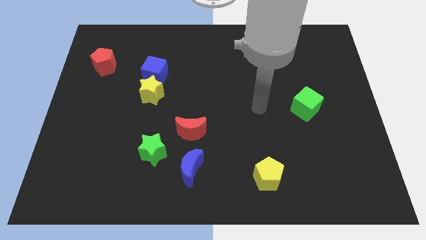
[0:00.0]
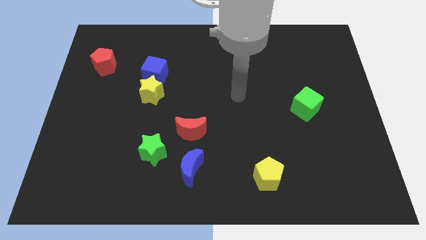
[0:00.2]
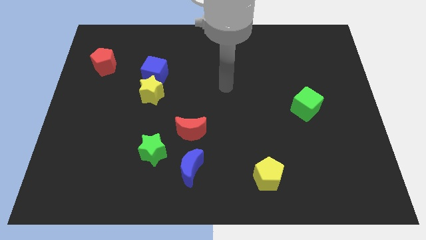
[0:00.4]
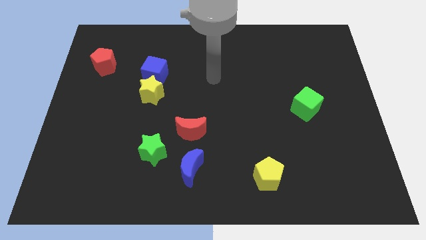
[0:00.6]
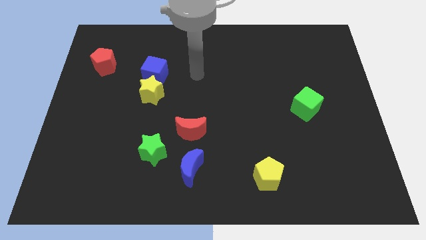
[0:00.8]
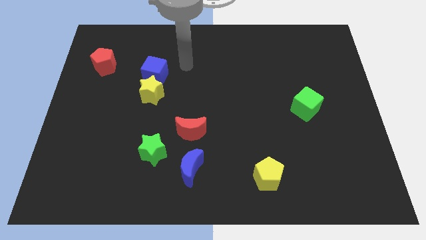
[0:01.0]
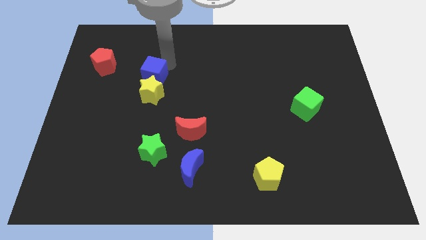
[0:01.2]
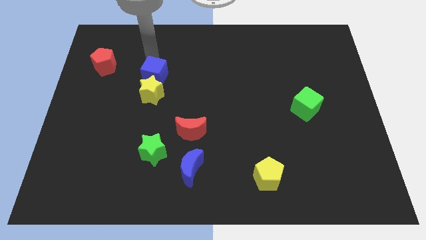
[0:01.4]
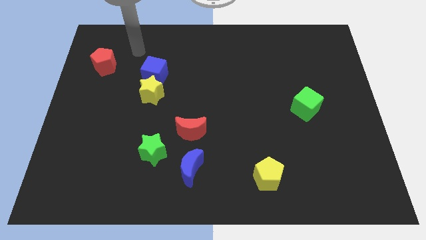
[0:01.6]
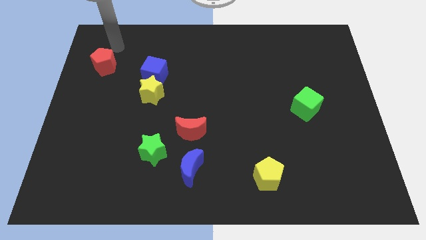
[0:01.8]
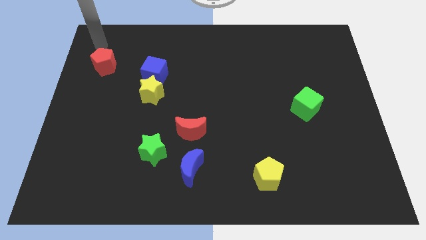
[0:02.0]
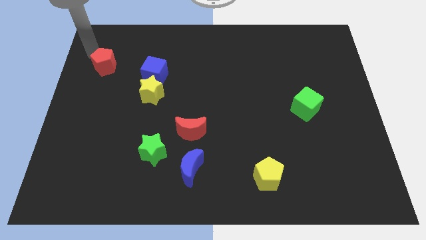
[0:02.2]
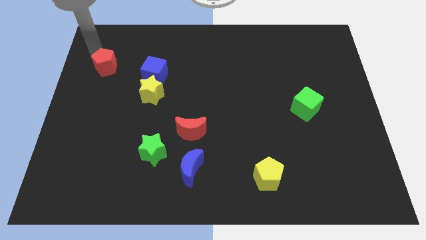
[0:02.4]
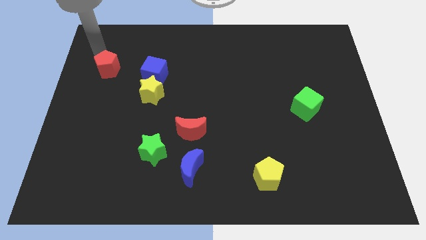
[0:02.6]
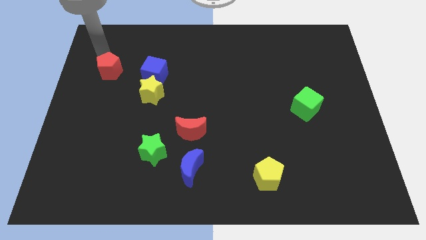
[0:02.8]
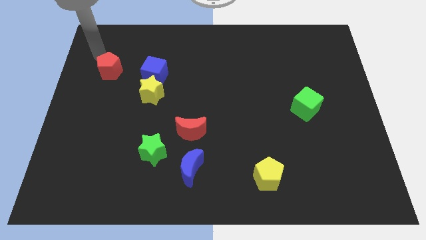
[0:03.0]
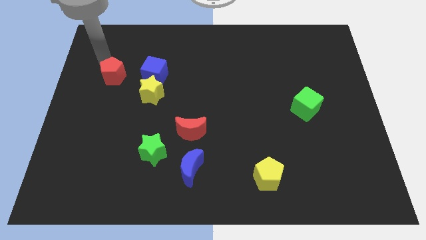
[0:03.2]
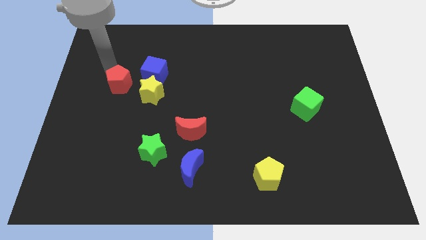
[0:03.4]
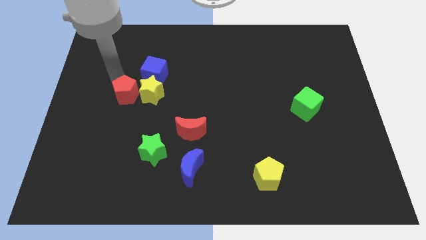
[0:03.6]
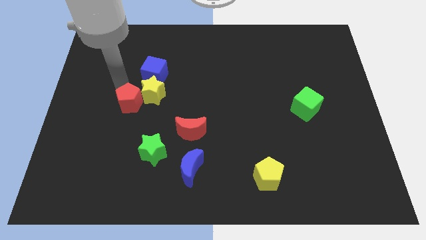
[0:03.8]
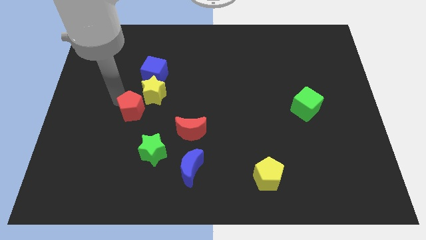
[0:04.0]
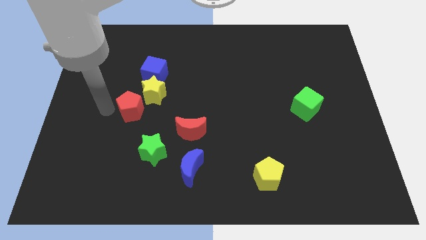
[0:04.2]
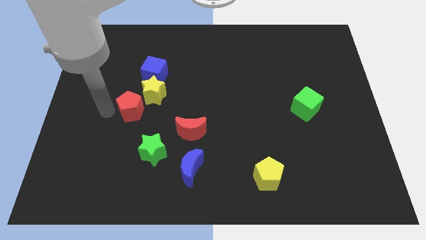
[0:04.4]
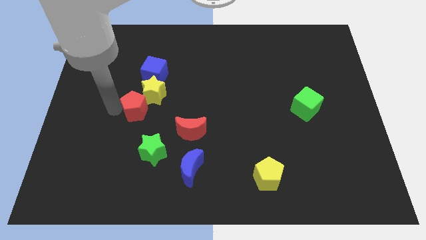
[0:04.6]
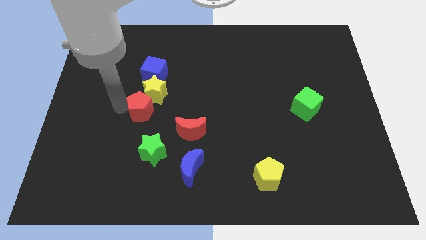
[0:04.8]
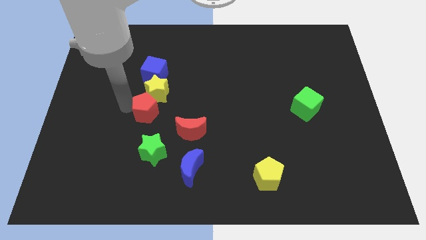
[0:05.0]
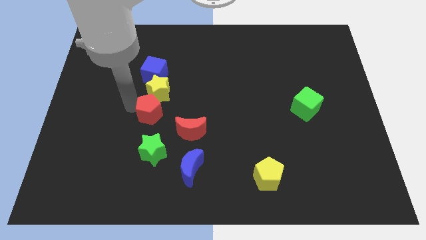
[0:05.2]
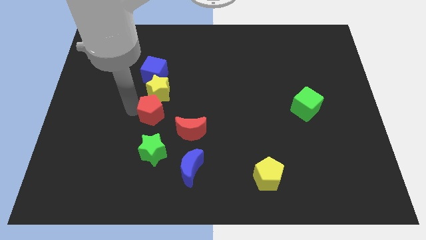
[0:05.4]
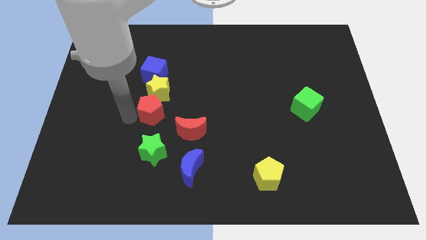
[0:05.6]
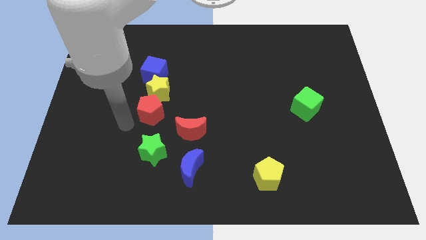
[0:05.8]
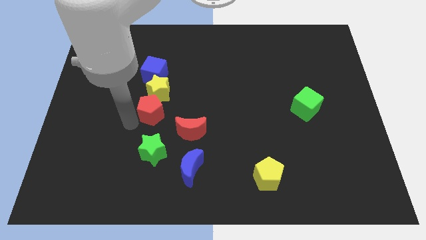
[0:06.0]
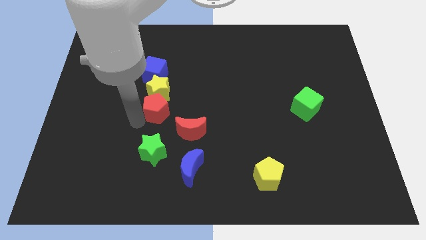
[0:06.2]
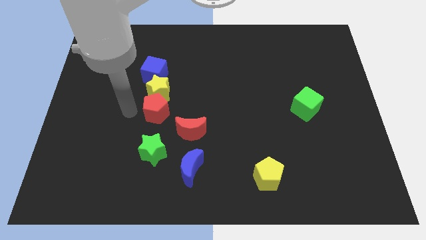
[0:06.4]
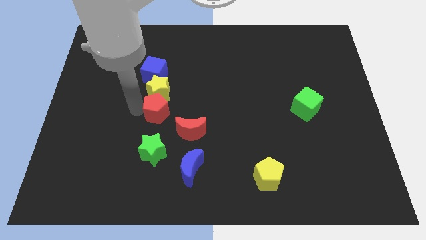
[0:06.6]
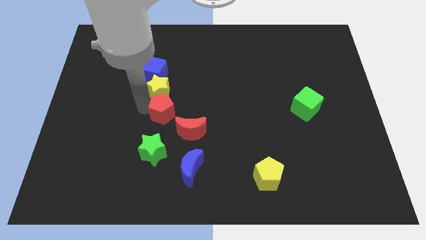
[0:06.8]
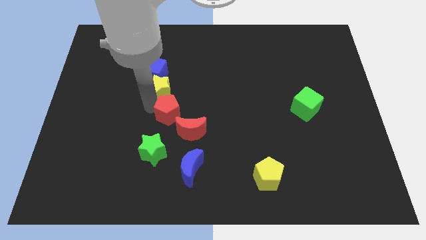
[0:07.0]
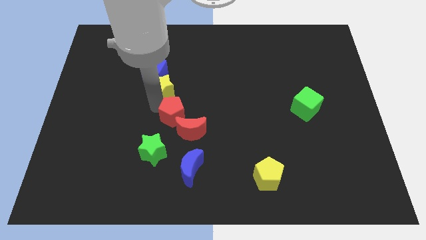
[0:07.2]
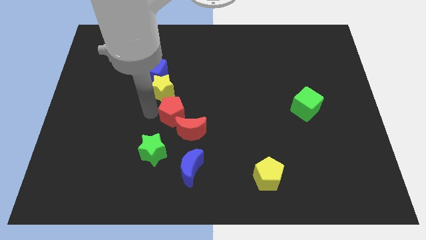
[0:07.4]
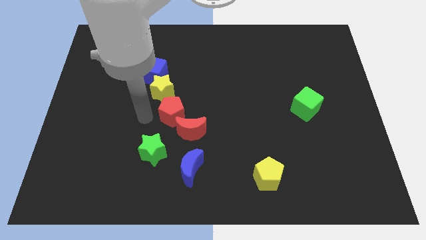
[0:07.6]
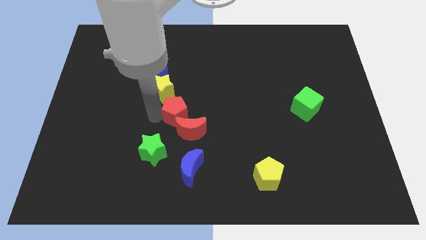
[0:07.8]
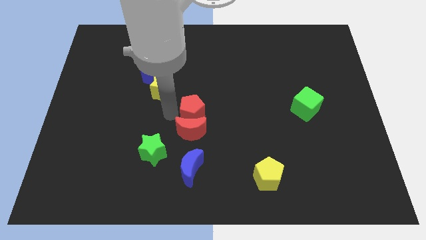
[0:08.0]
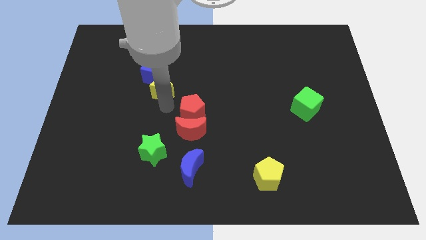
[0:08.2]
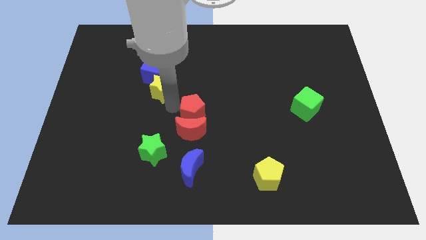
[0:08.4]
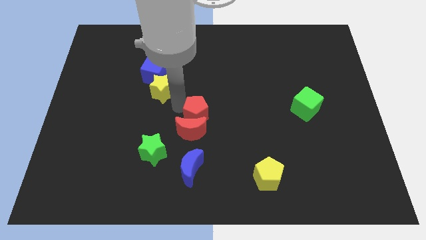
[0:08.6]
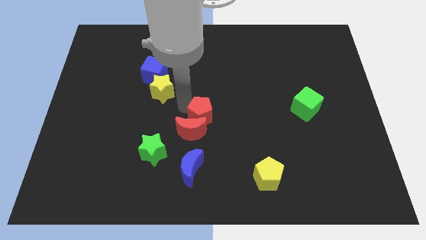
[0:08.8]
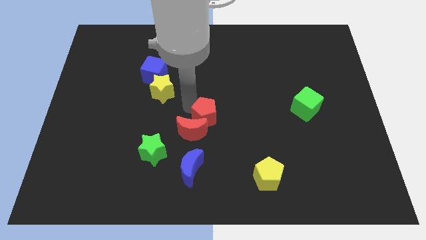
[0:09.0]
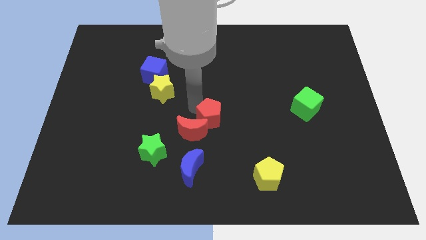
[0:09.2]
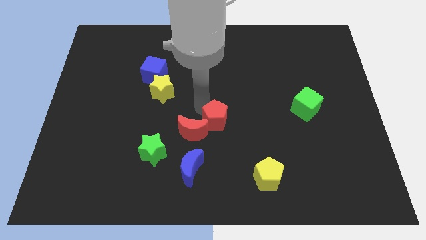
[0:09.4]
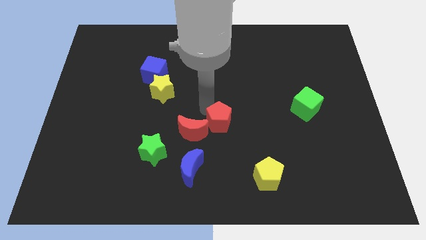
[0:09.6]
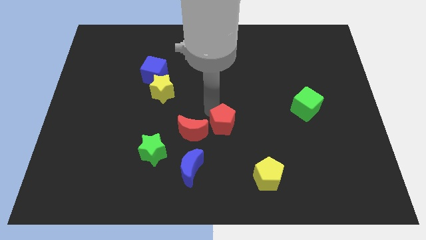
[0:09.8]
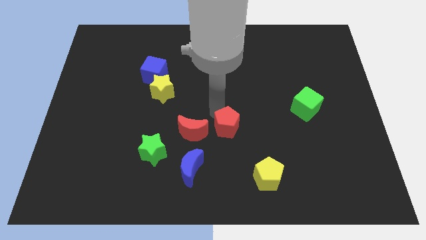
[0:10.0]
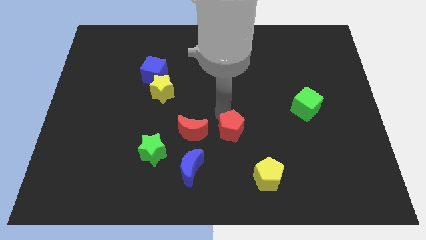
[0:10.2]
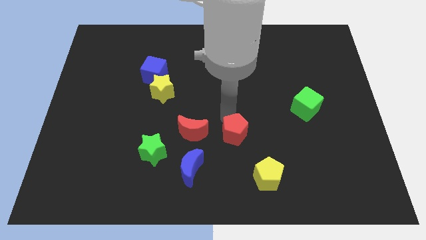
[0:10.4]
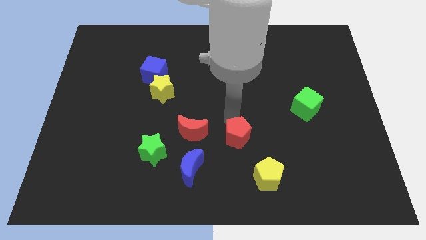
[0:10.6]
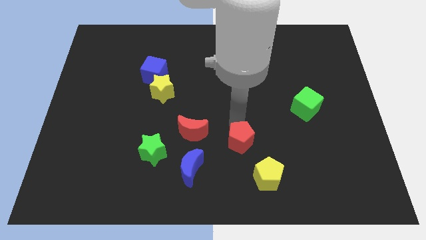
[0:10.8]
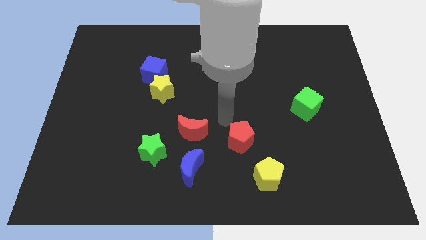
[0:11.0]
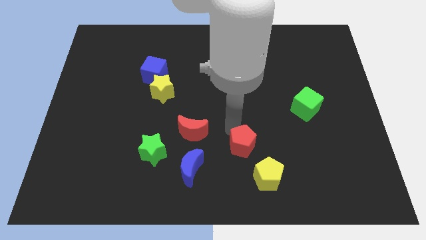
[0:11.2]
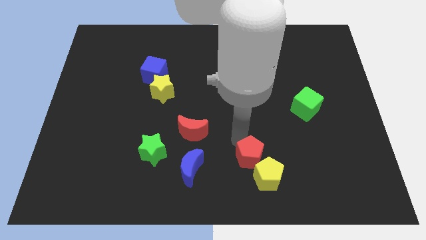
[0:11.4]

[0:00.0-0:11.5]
put the red pentagon towards the yellow pentagon

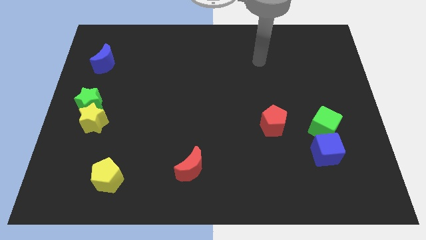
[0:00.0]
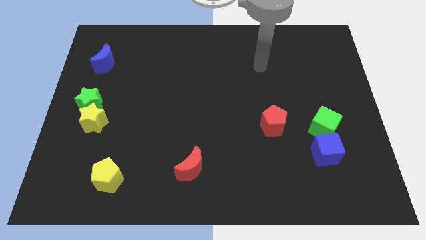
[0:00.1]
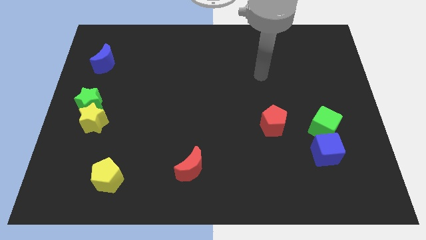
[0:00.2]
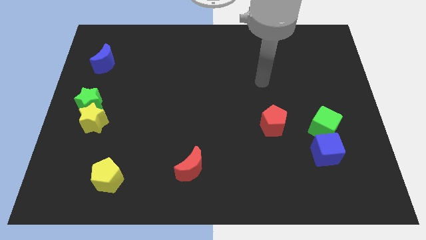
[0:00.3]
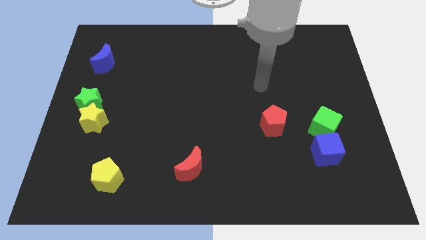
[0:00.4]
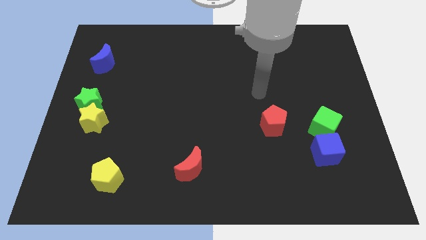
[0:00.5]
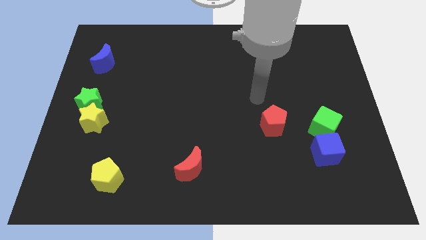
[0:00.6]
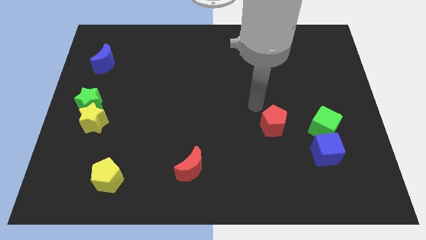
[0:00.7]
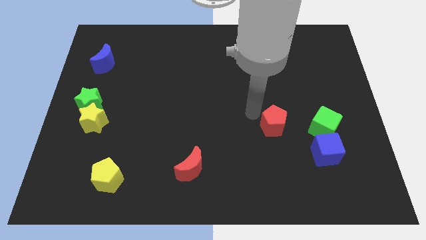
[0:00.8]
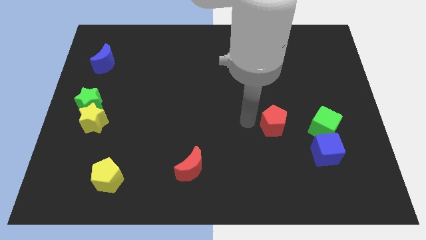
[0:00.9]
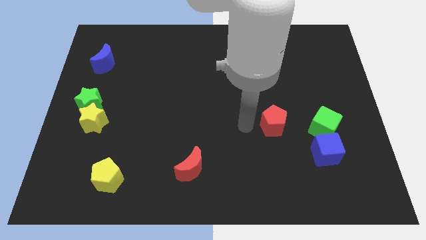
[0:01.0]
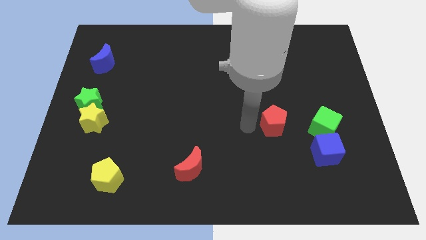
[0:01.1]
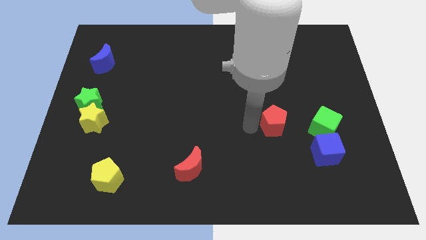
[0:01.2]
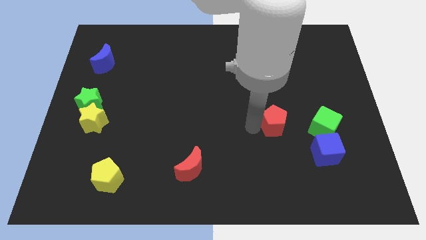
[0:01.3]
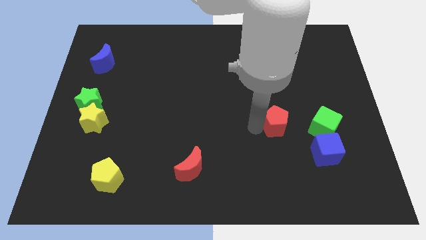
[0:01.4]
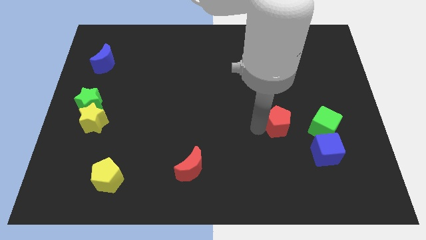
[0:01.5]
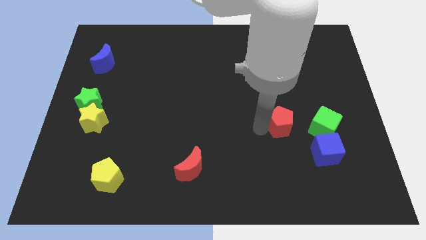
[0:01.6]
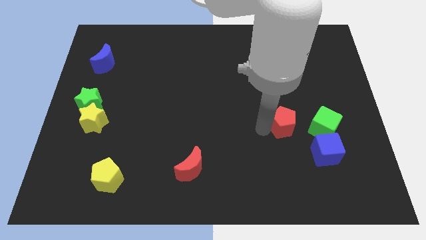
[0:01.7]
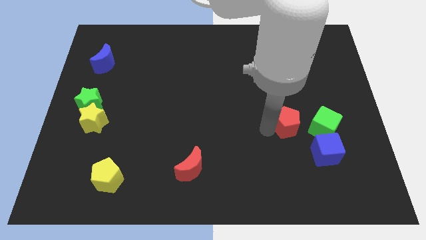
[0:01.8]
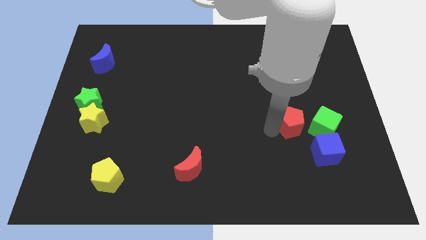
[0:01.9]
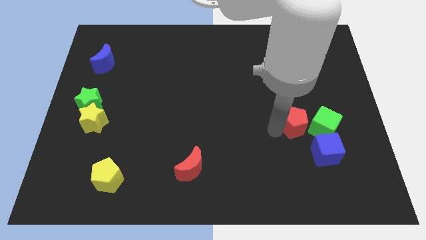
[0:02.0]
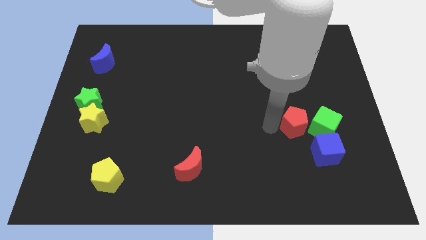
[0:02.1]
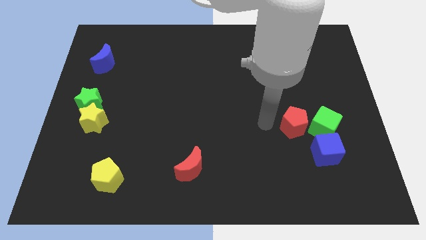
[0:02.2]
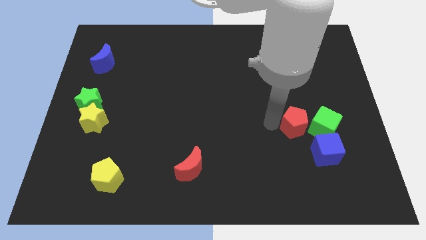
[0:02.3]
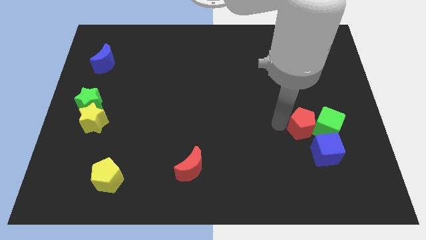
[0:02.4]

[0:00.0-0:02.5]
move the red pentagon towards the green cube
